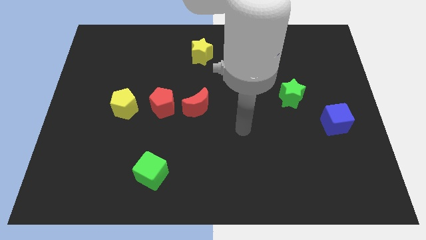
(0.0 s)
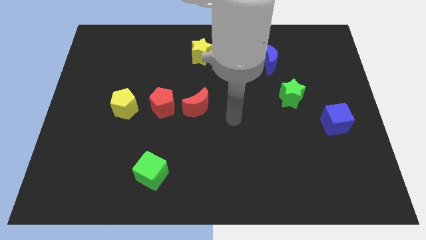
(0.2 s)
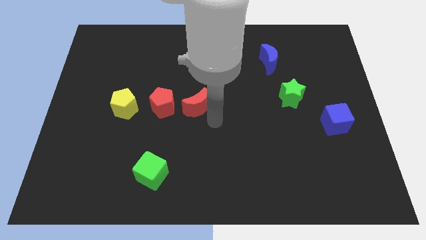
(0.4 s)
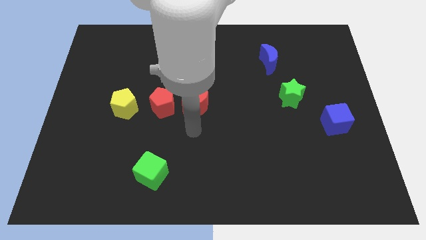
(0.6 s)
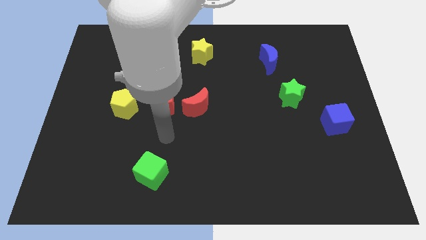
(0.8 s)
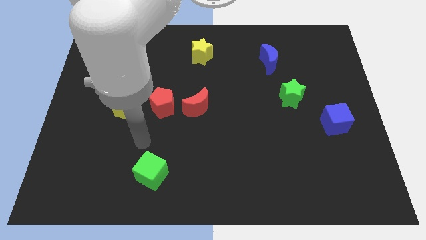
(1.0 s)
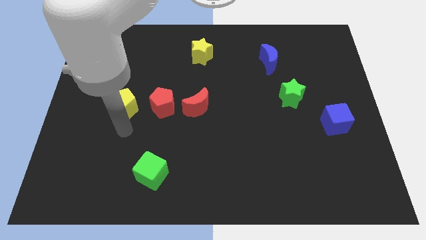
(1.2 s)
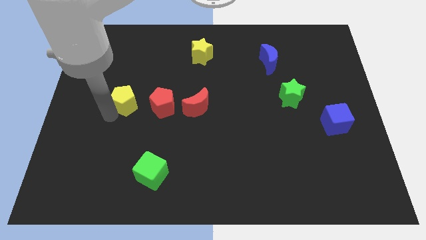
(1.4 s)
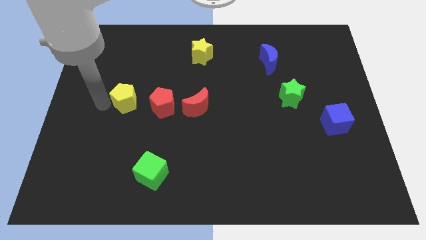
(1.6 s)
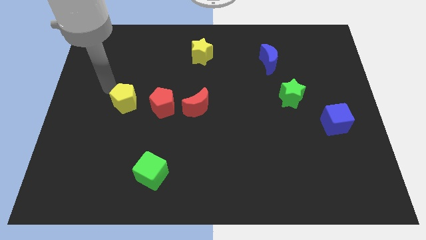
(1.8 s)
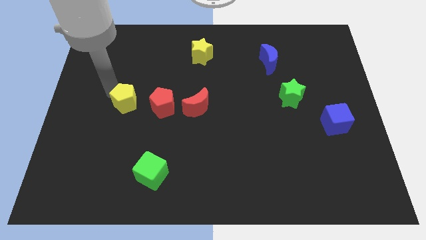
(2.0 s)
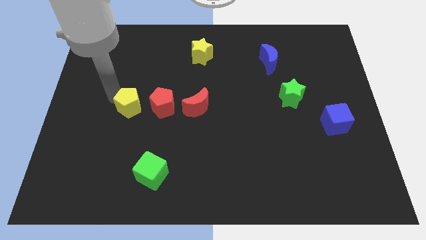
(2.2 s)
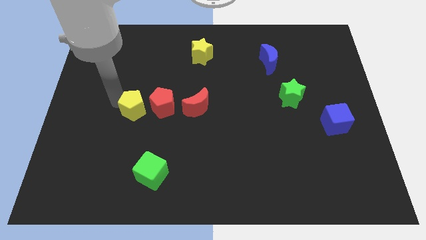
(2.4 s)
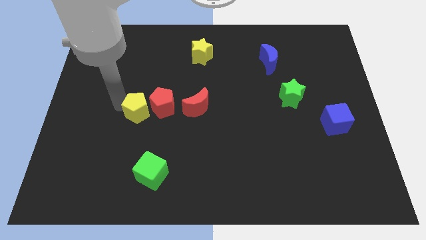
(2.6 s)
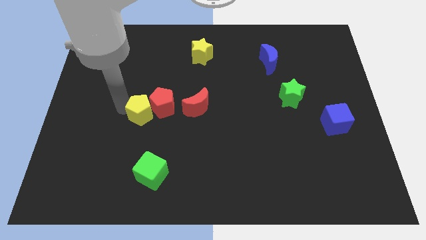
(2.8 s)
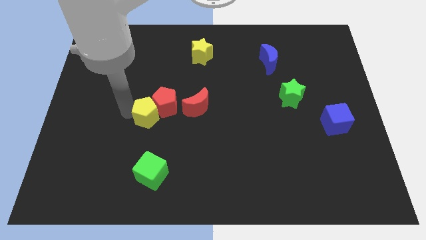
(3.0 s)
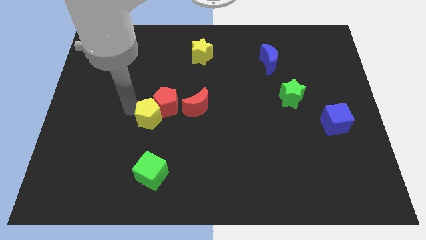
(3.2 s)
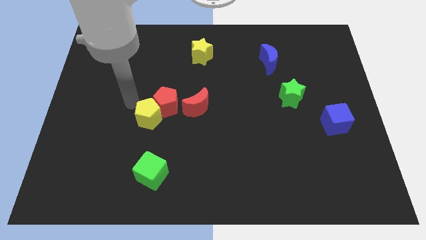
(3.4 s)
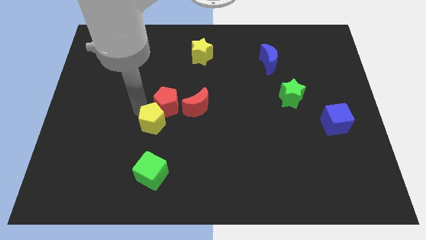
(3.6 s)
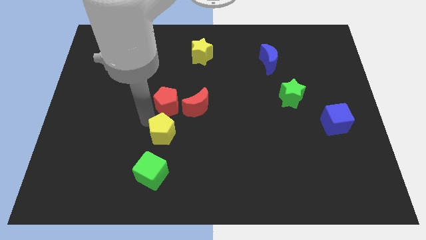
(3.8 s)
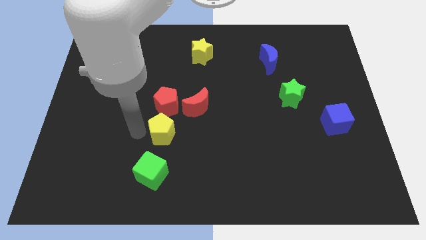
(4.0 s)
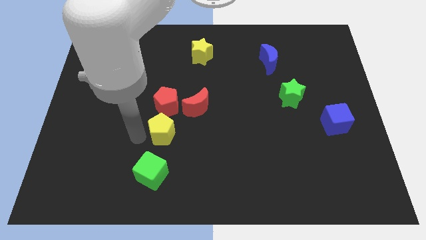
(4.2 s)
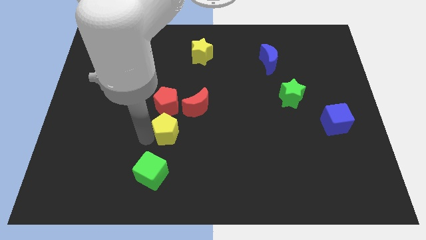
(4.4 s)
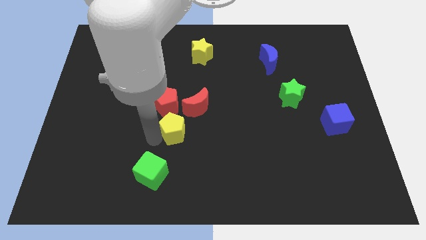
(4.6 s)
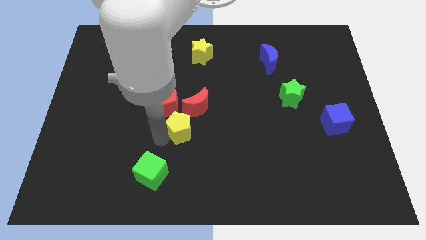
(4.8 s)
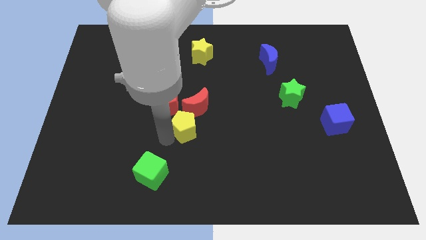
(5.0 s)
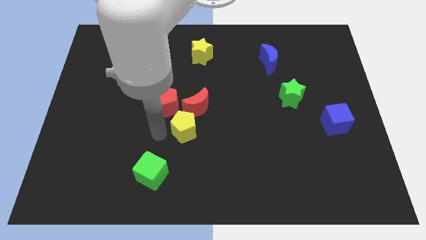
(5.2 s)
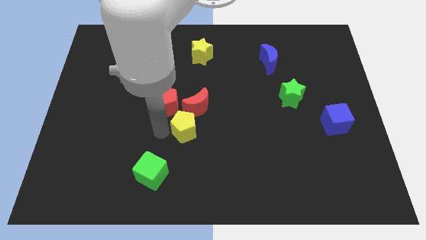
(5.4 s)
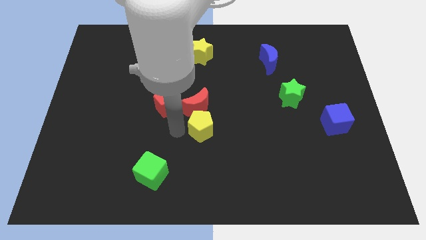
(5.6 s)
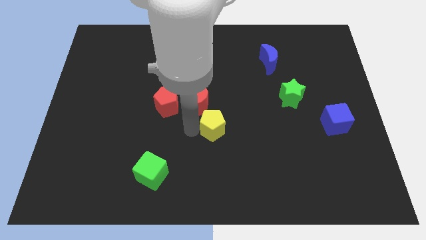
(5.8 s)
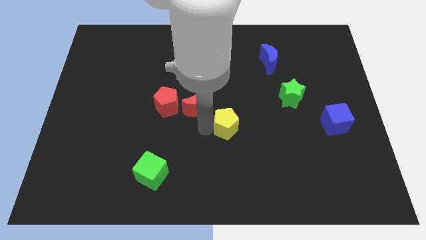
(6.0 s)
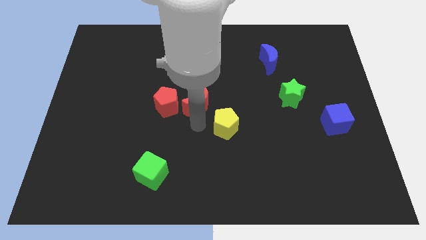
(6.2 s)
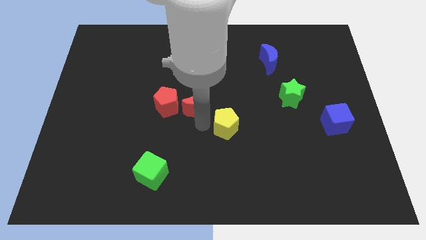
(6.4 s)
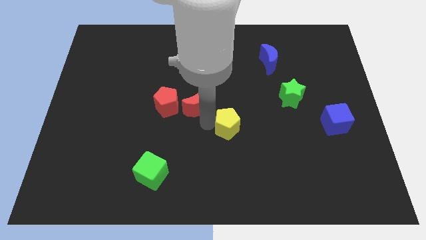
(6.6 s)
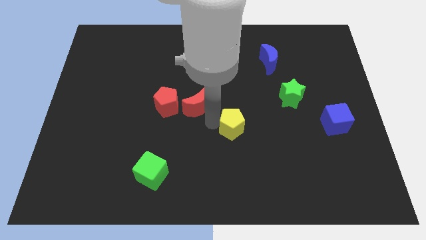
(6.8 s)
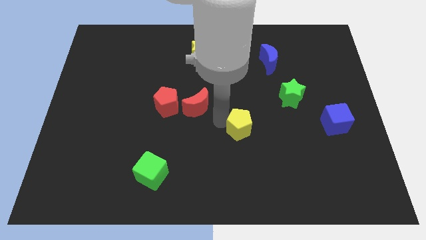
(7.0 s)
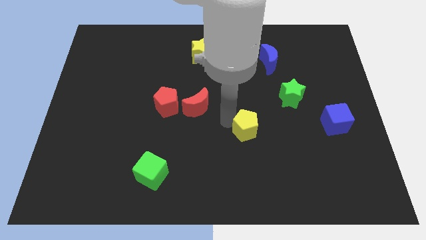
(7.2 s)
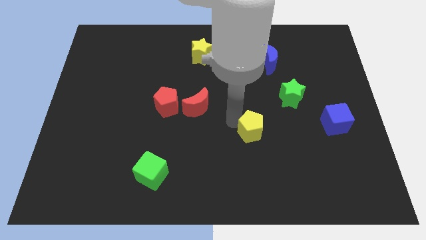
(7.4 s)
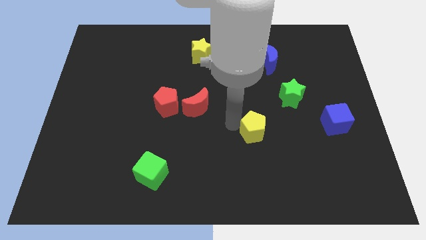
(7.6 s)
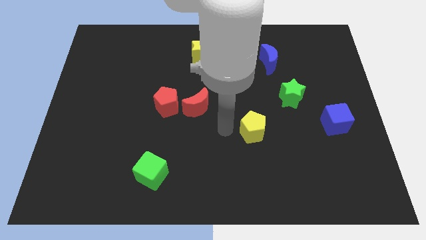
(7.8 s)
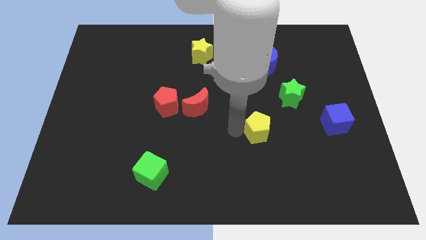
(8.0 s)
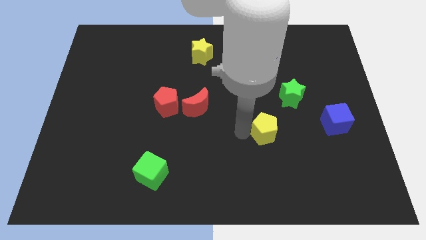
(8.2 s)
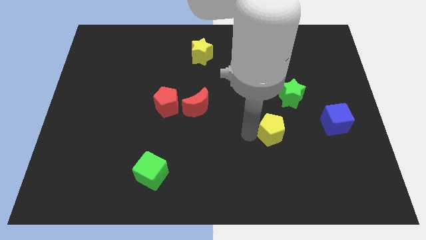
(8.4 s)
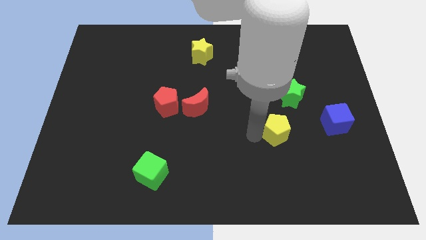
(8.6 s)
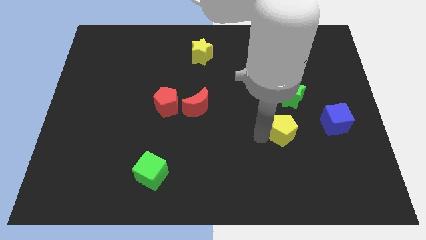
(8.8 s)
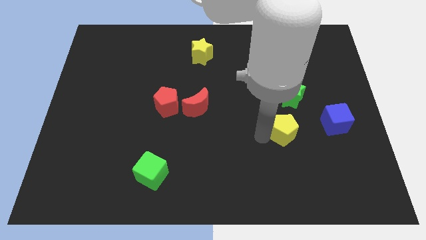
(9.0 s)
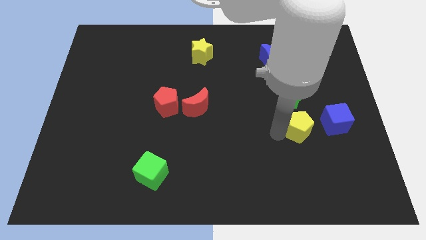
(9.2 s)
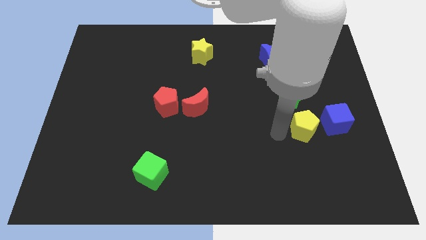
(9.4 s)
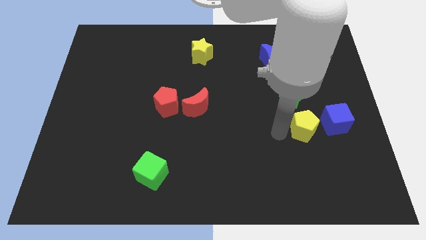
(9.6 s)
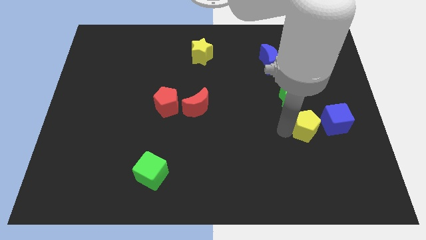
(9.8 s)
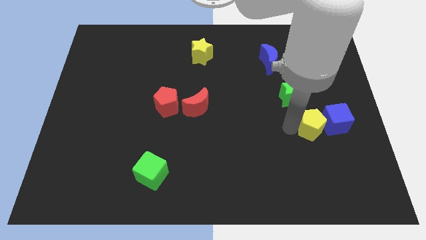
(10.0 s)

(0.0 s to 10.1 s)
push the yellow pentagon next to the blue cube

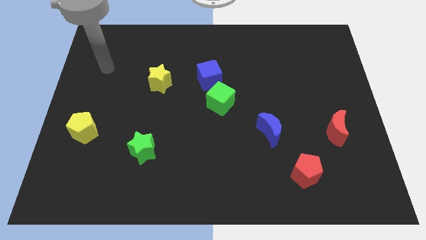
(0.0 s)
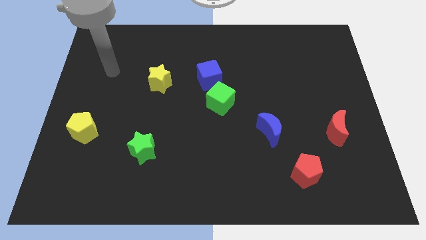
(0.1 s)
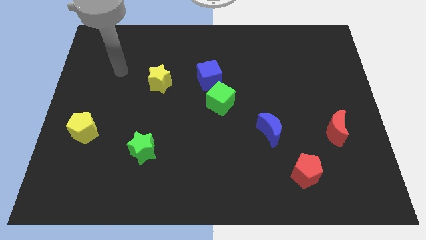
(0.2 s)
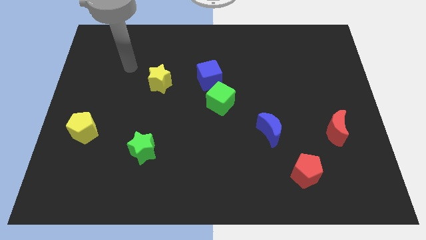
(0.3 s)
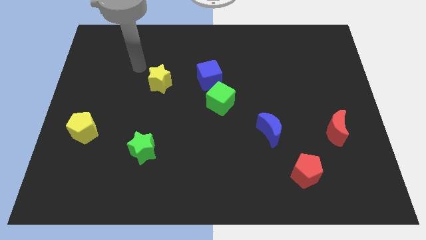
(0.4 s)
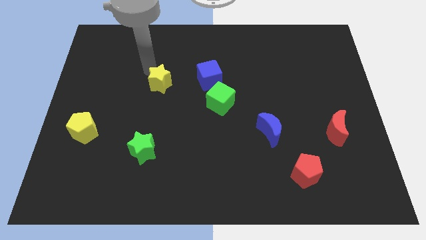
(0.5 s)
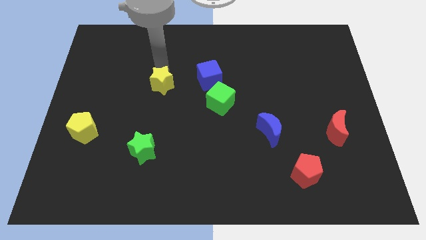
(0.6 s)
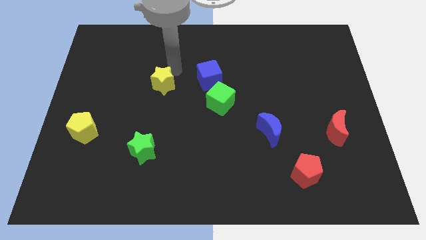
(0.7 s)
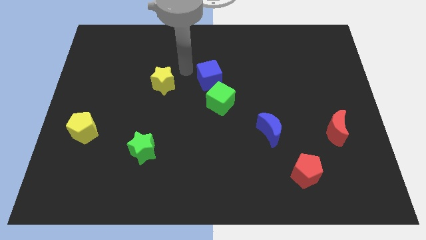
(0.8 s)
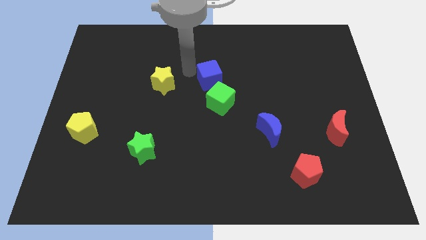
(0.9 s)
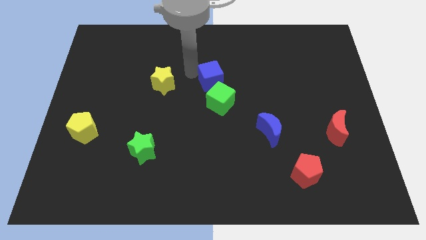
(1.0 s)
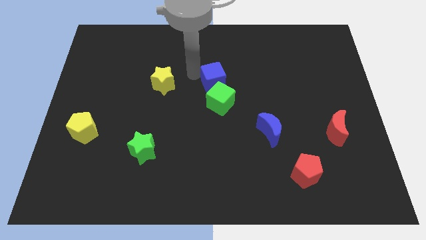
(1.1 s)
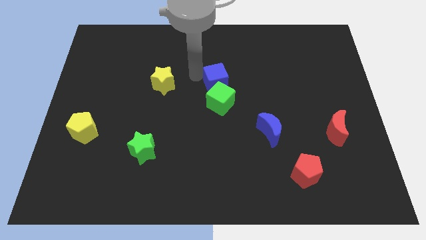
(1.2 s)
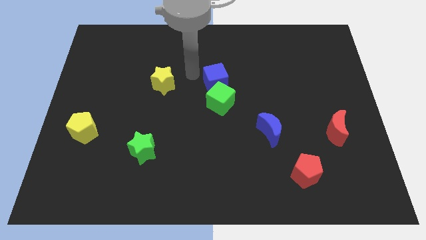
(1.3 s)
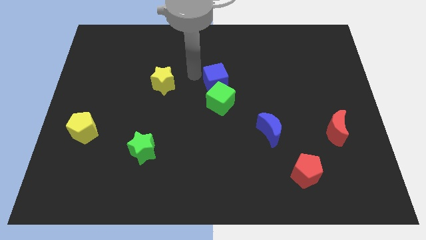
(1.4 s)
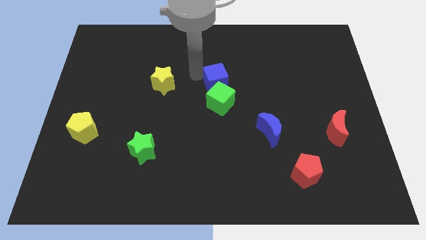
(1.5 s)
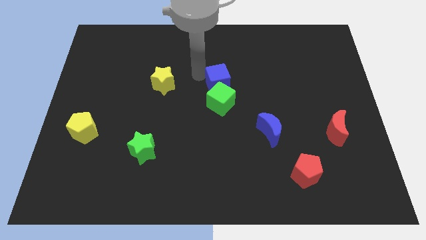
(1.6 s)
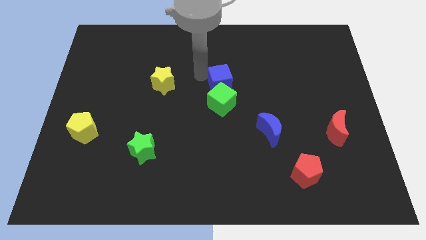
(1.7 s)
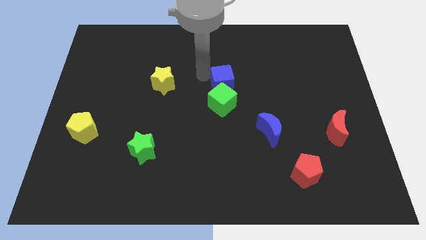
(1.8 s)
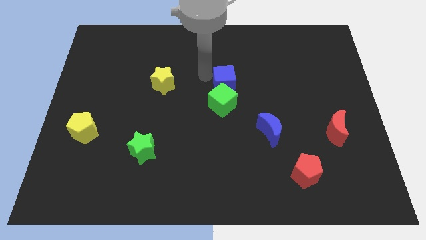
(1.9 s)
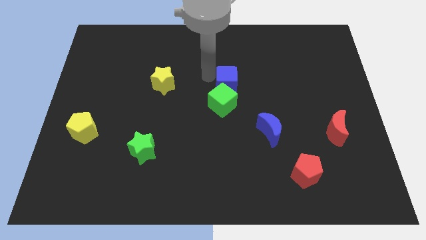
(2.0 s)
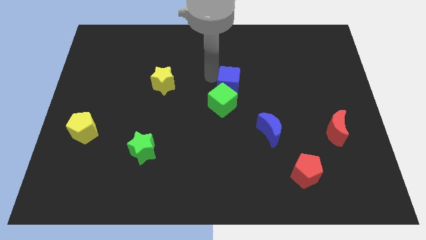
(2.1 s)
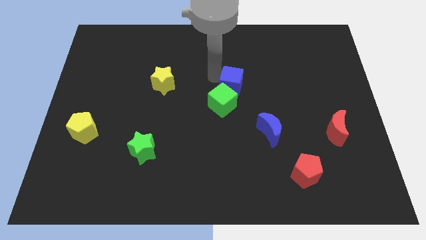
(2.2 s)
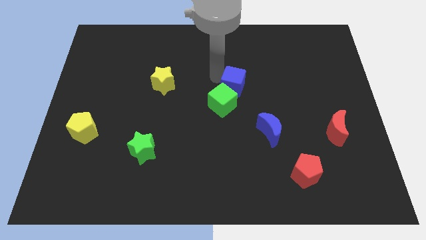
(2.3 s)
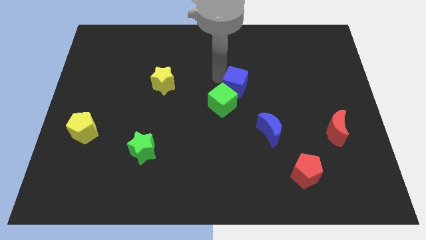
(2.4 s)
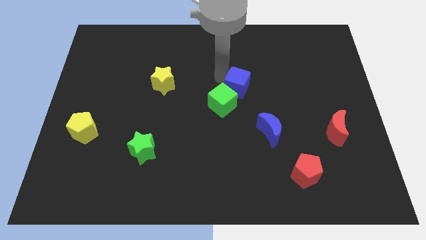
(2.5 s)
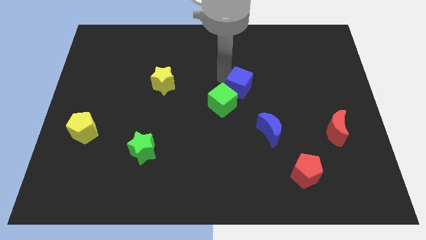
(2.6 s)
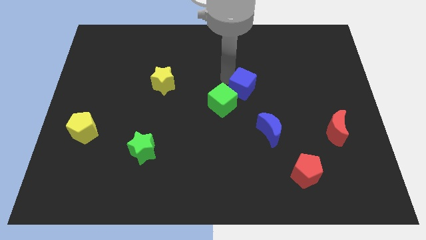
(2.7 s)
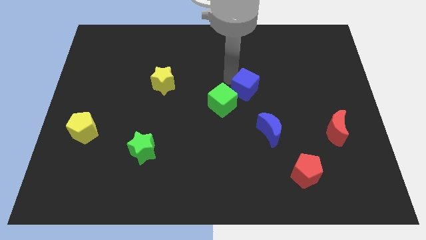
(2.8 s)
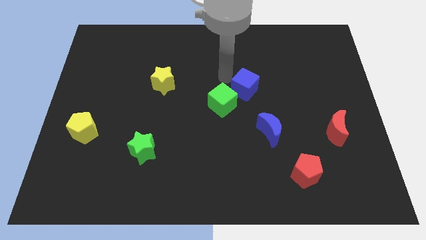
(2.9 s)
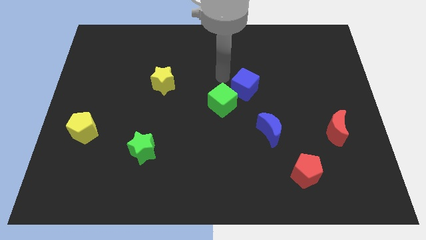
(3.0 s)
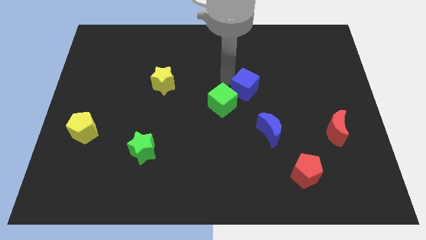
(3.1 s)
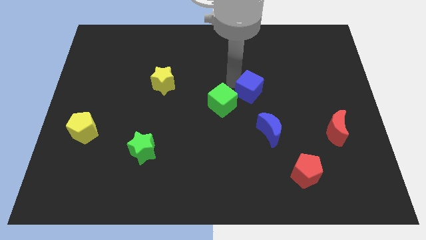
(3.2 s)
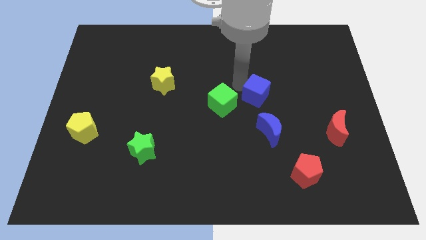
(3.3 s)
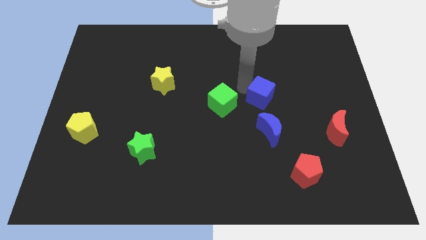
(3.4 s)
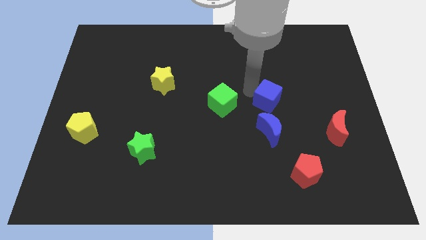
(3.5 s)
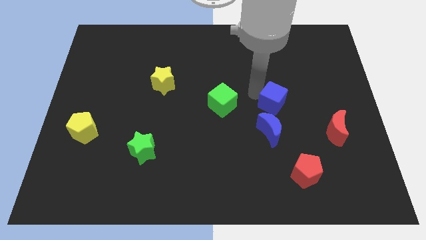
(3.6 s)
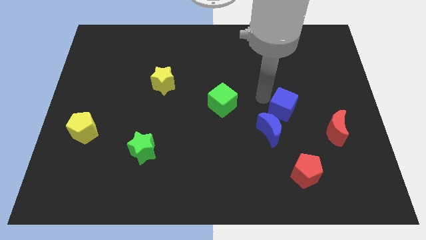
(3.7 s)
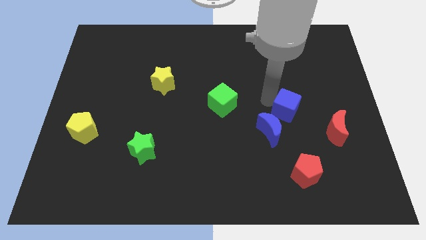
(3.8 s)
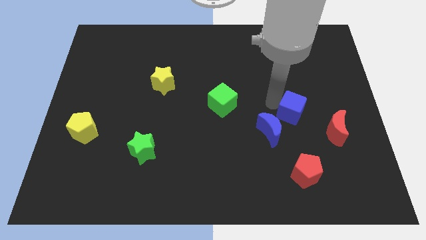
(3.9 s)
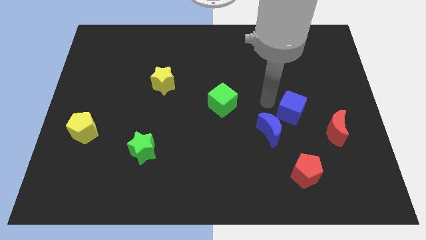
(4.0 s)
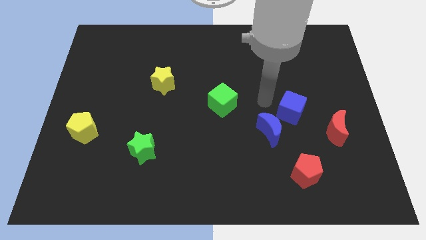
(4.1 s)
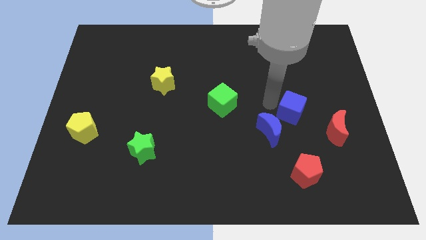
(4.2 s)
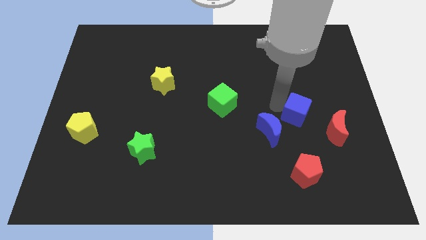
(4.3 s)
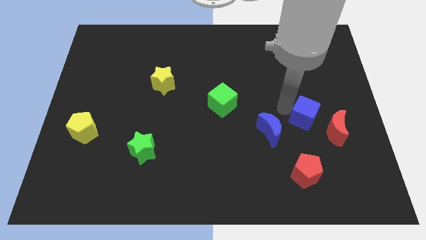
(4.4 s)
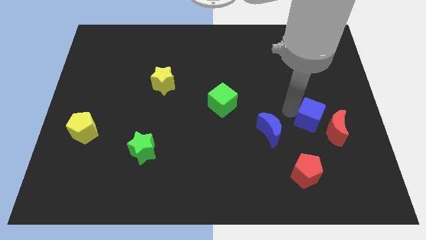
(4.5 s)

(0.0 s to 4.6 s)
push the blue cube close to the red moon
